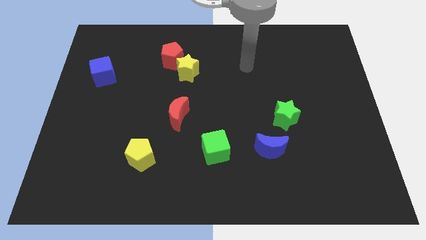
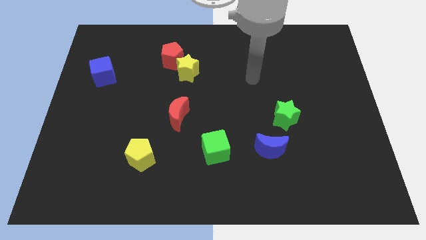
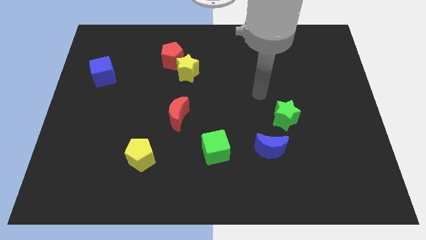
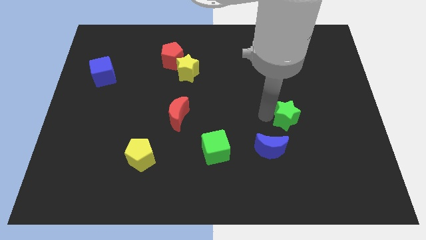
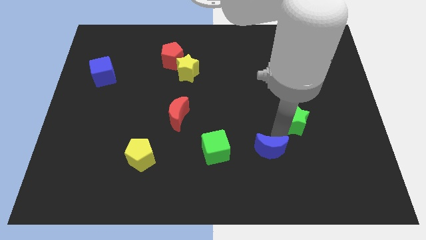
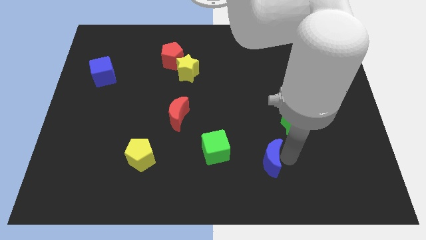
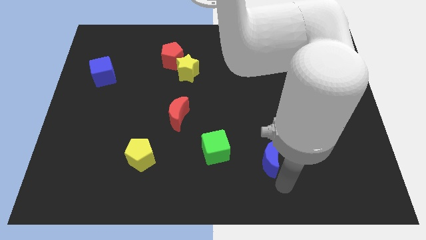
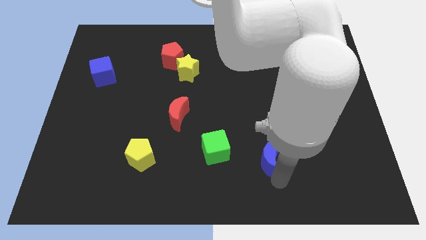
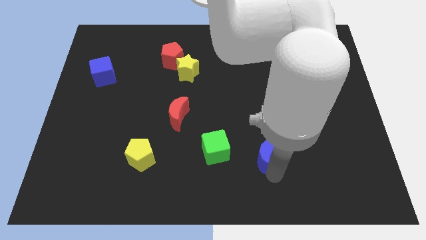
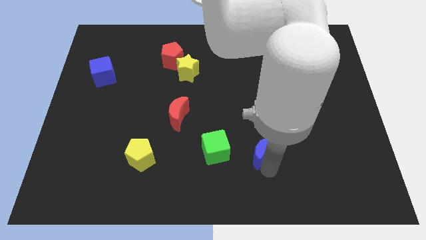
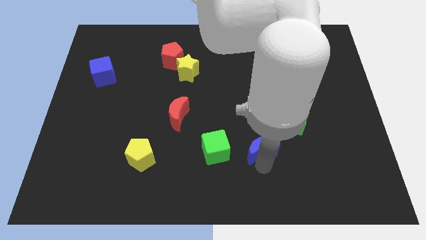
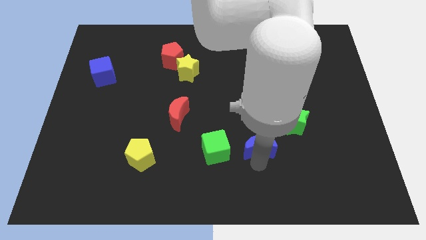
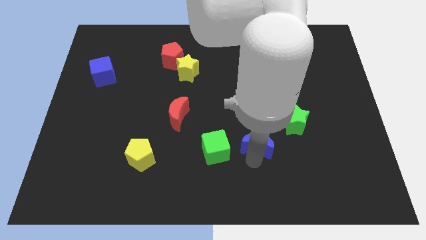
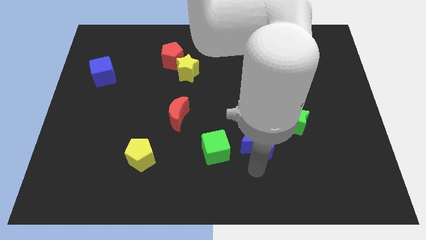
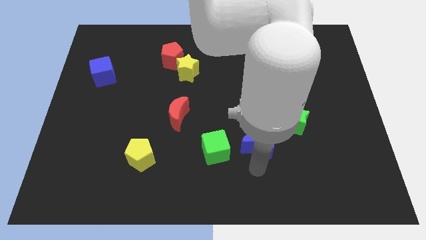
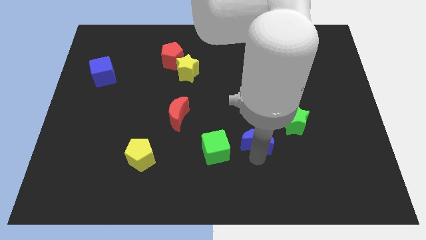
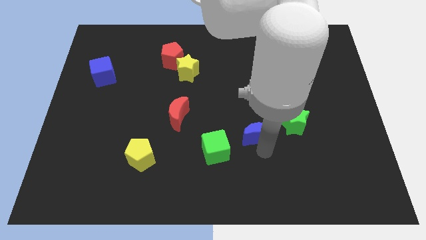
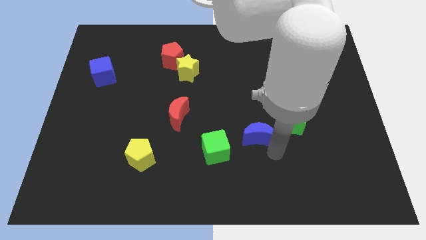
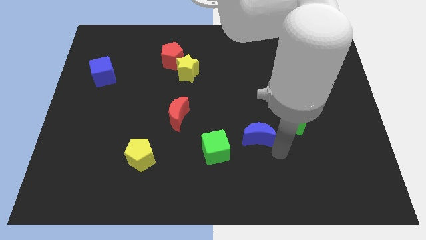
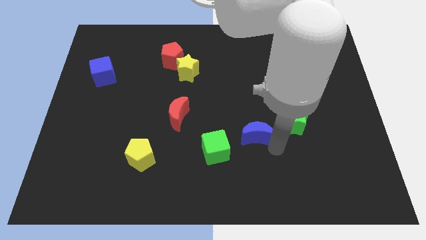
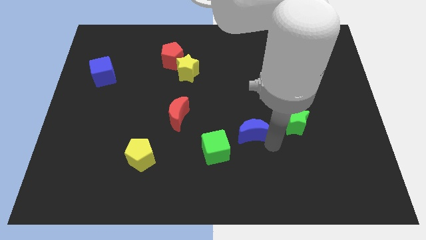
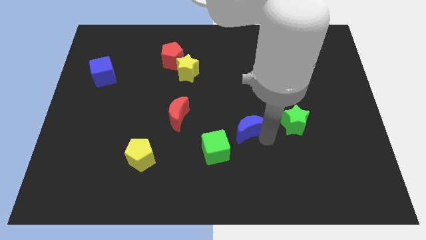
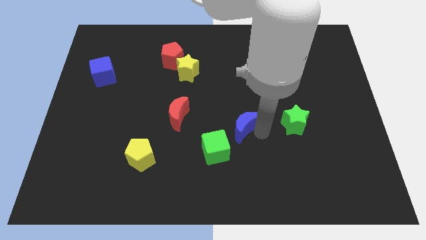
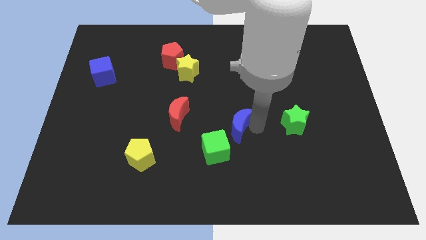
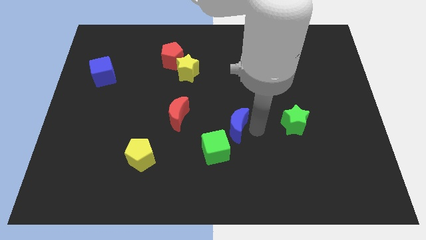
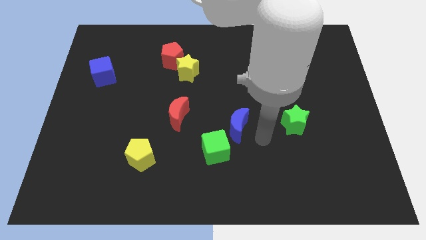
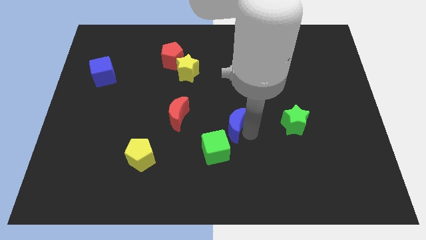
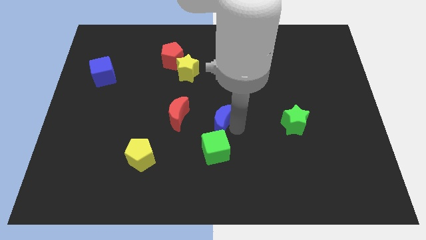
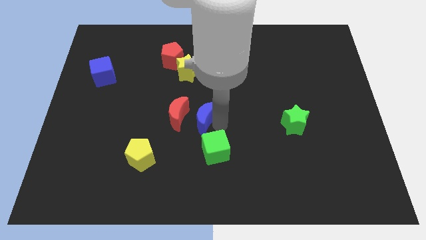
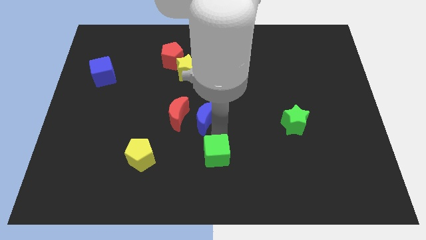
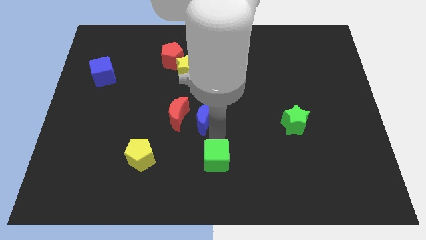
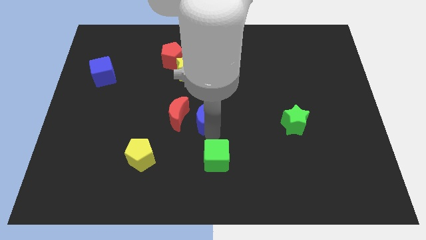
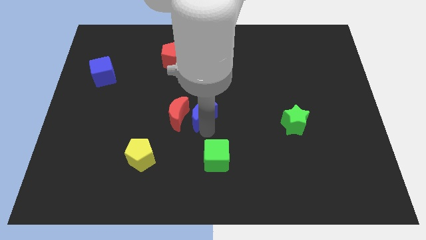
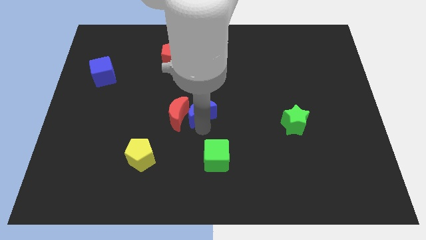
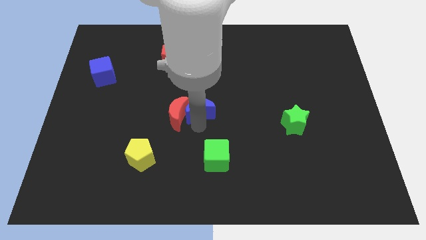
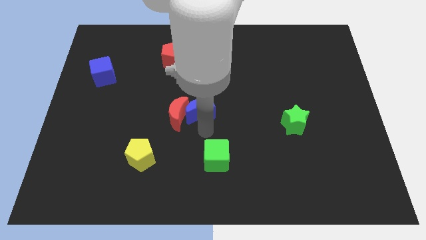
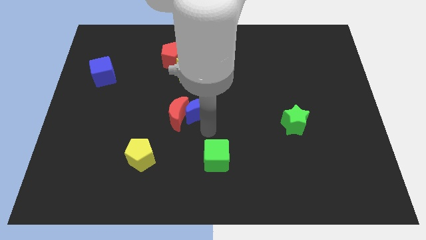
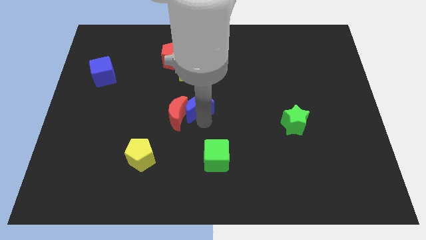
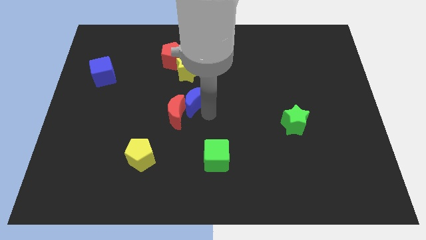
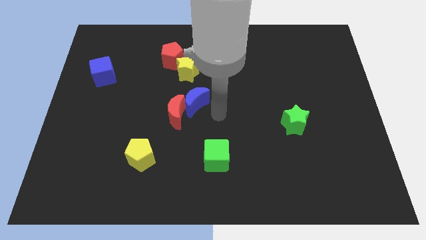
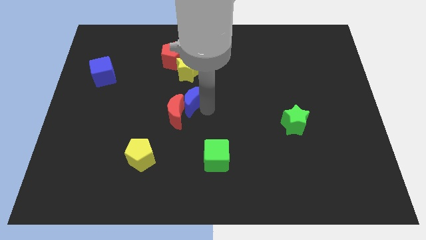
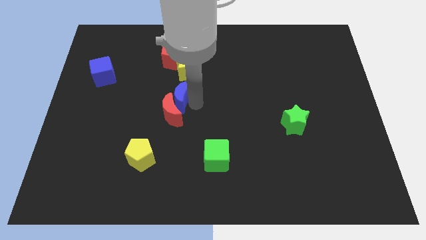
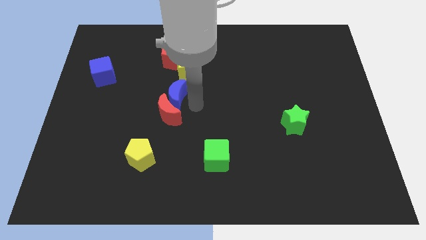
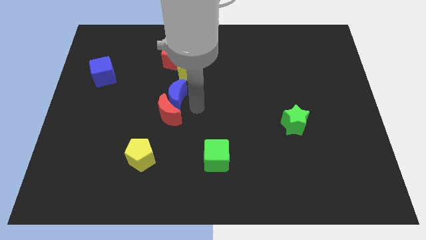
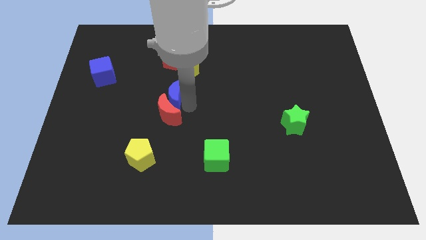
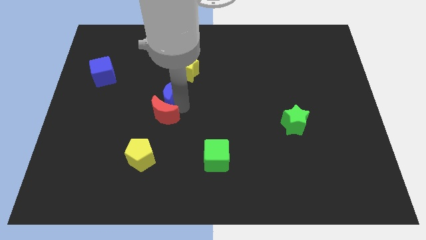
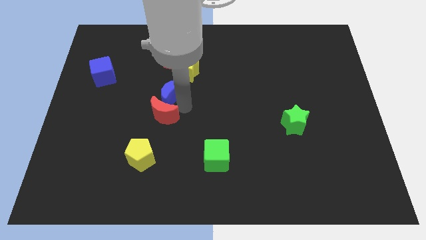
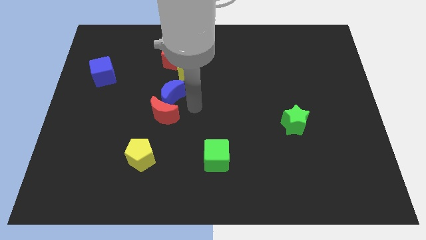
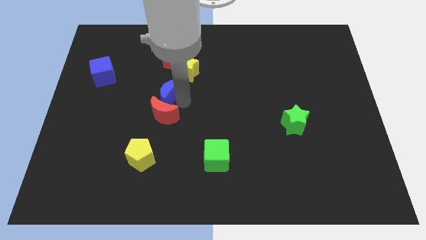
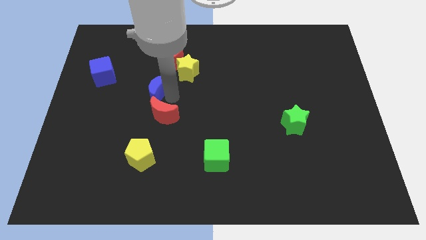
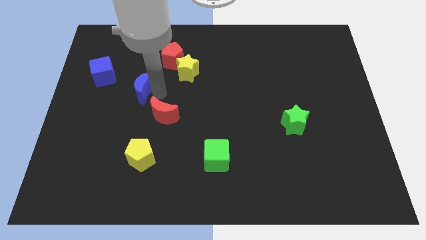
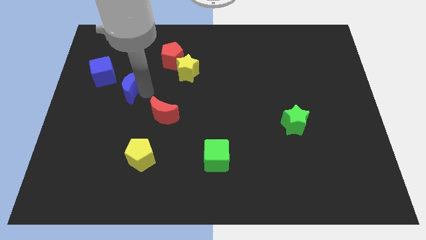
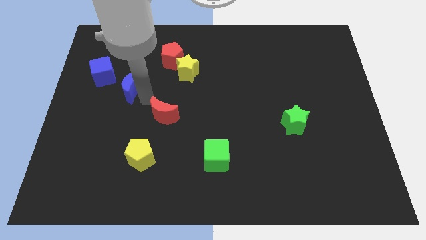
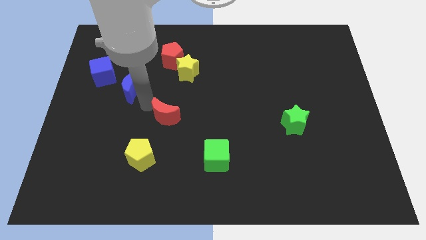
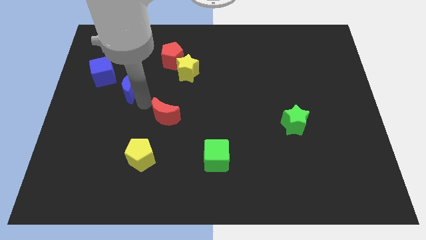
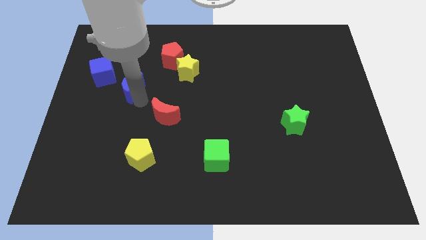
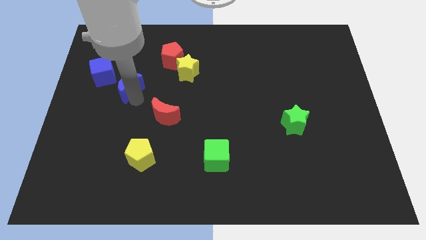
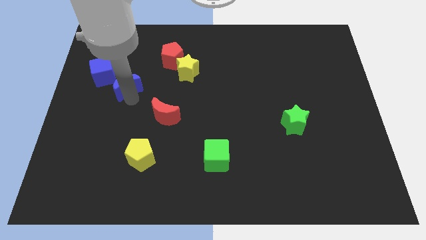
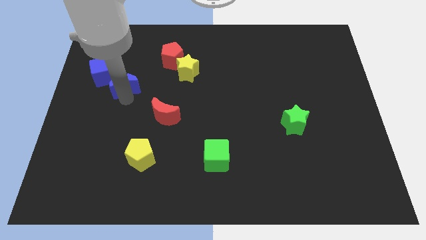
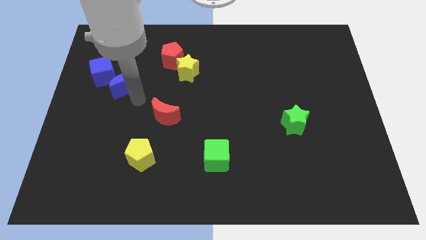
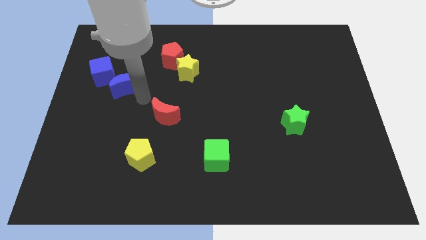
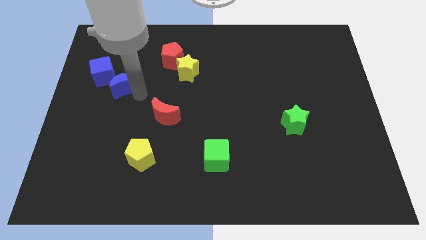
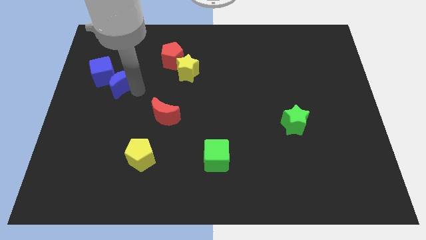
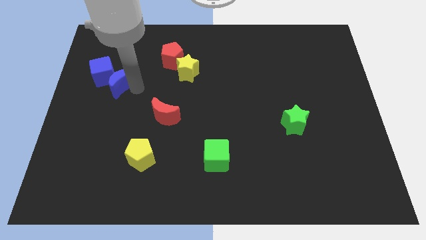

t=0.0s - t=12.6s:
push the blue moon to the blue cube

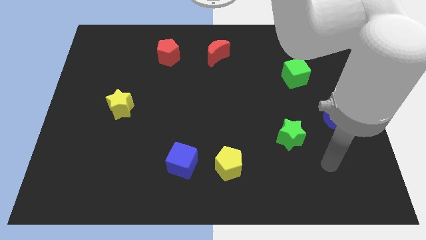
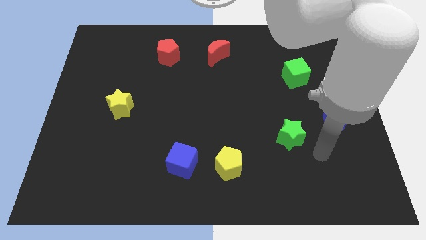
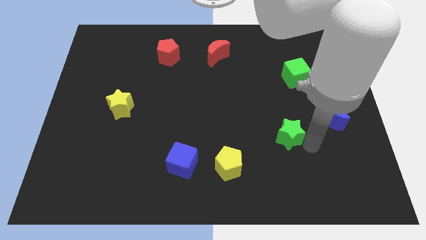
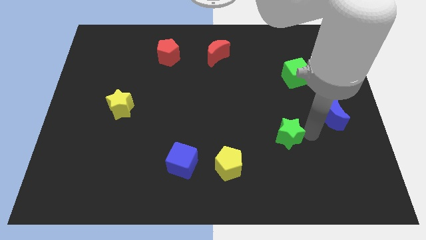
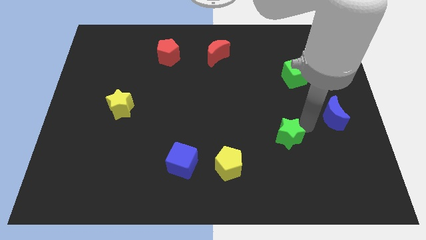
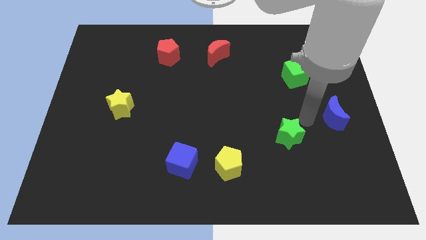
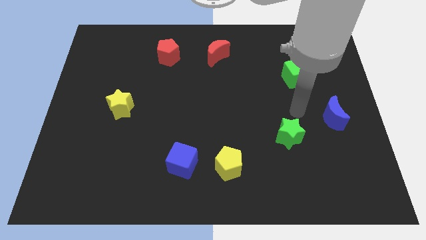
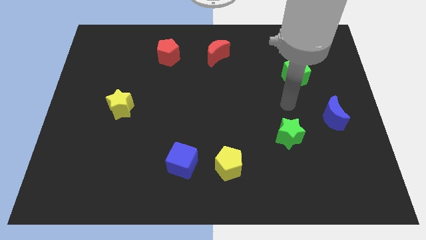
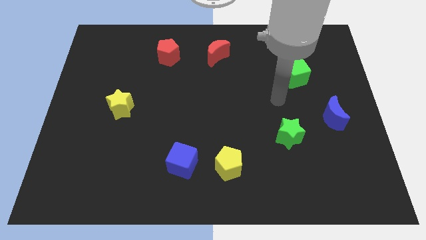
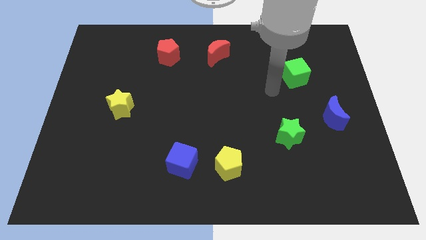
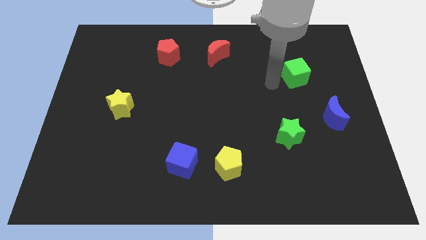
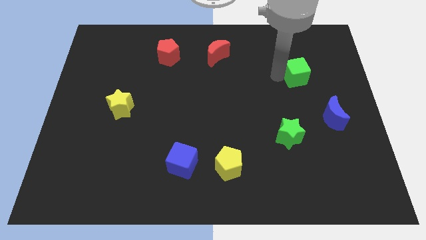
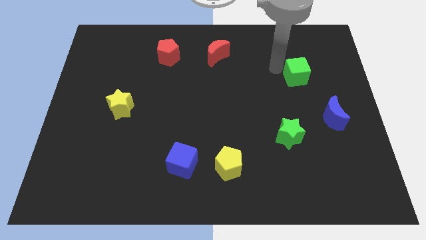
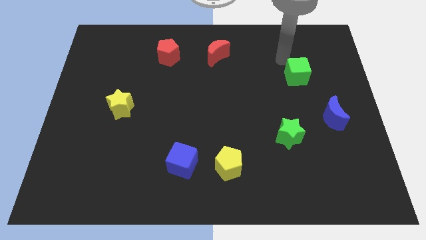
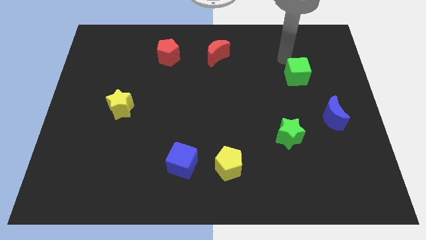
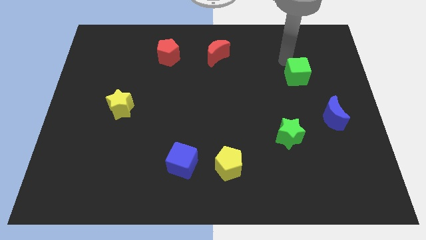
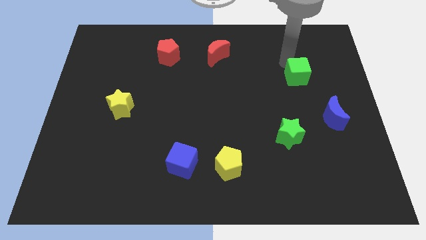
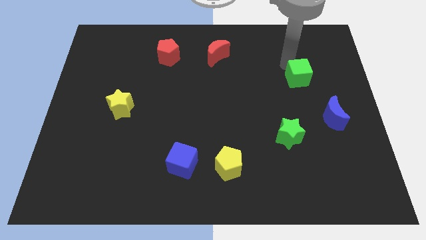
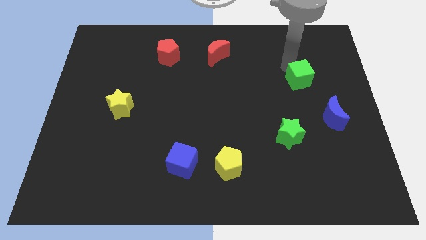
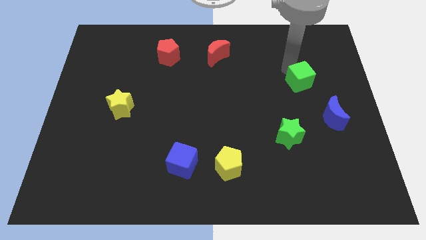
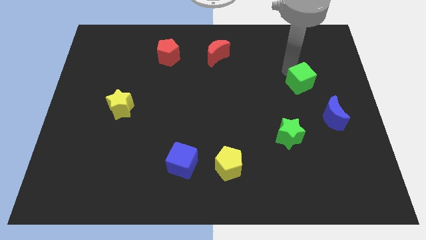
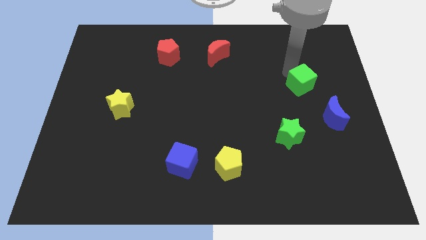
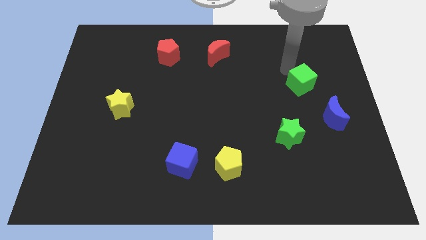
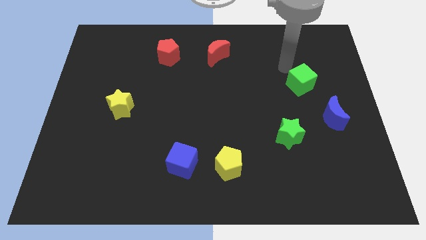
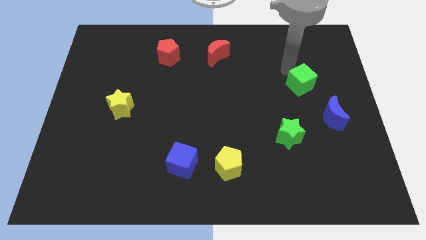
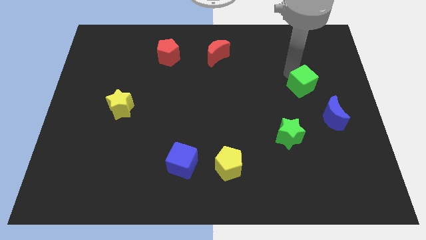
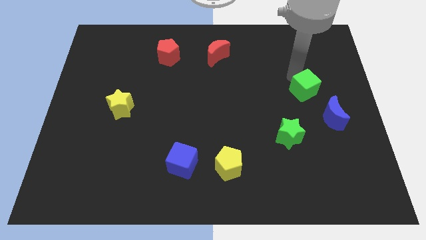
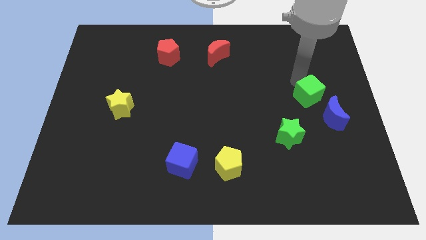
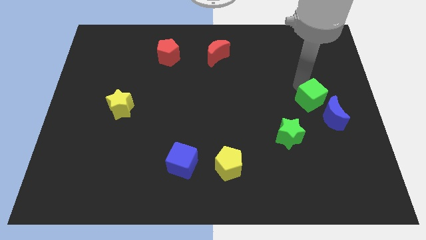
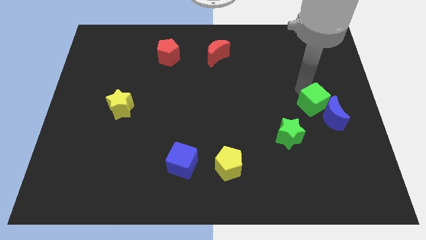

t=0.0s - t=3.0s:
put the green cube next to the blue moon
